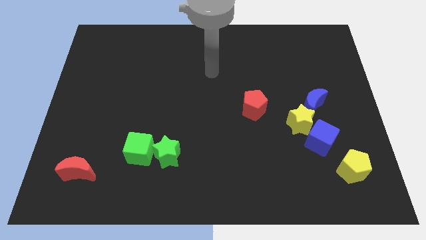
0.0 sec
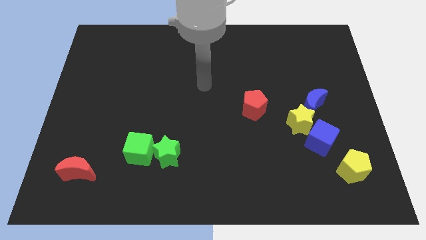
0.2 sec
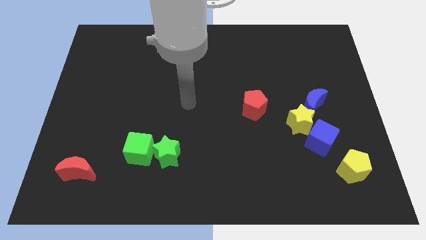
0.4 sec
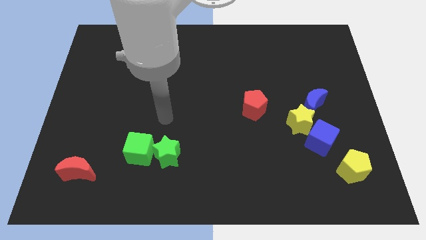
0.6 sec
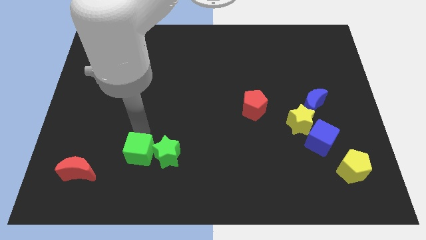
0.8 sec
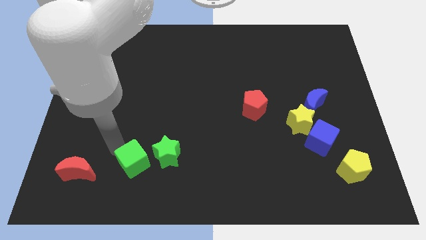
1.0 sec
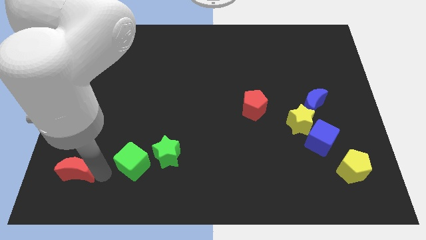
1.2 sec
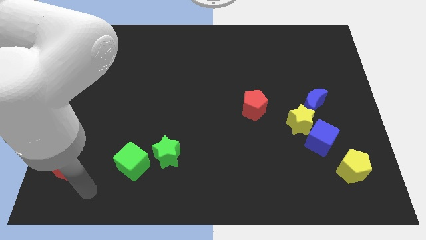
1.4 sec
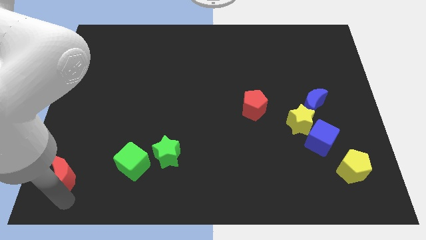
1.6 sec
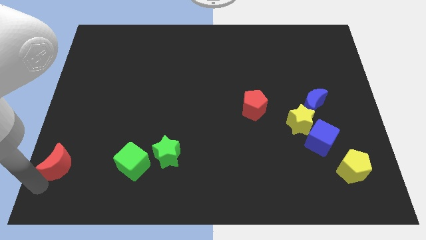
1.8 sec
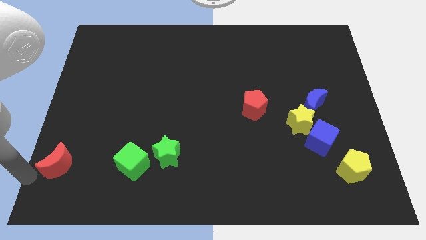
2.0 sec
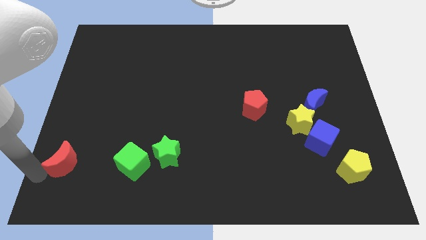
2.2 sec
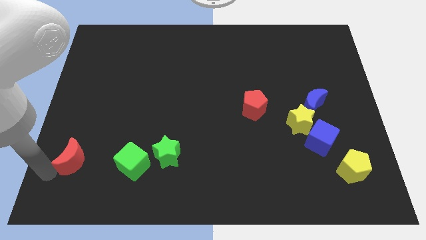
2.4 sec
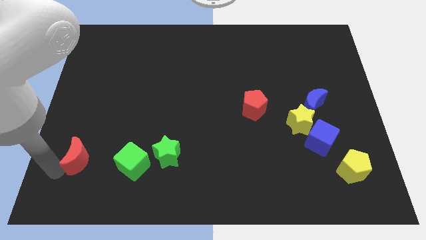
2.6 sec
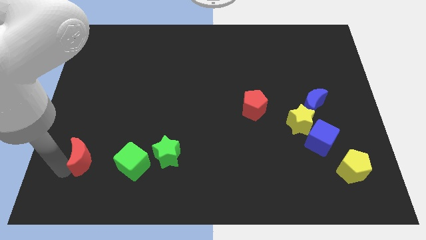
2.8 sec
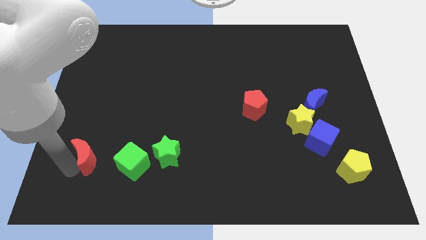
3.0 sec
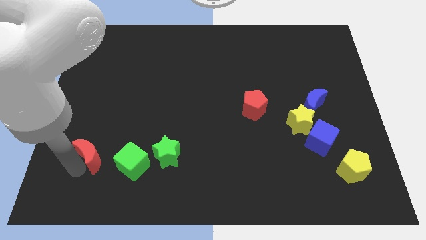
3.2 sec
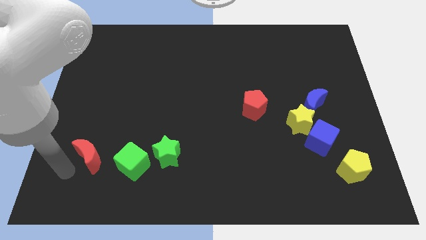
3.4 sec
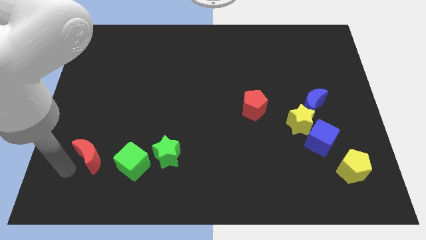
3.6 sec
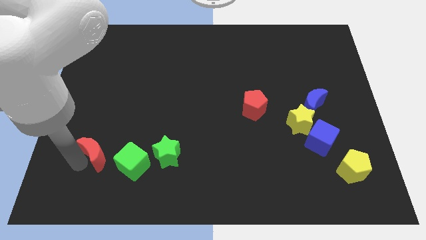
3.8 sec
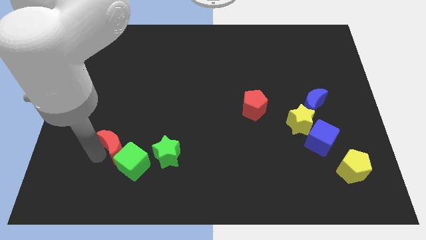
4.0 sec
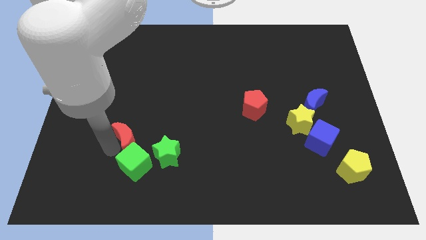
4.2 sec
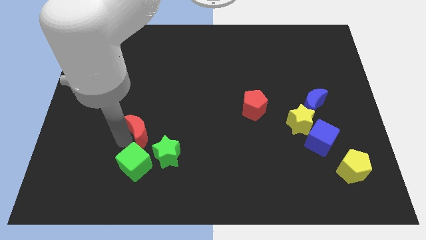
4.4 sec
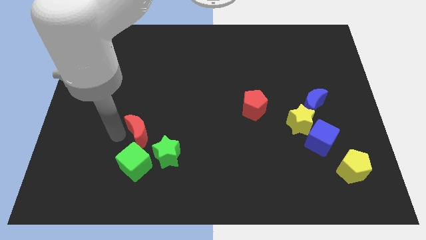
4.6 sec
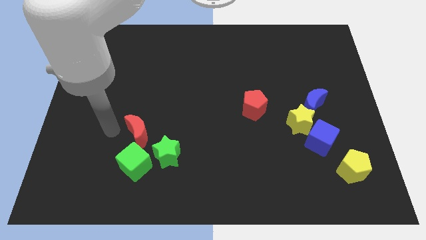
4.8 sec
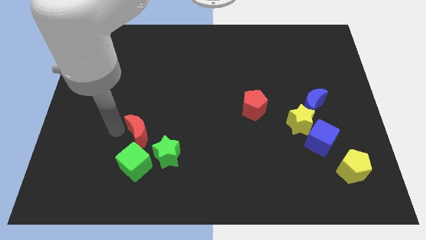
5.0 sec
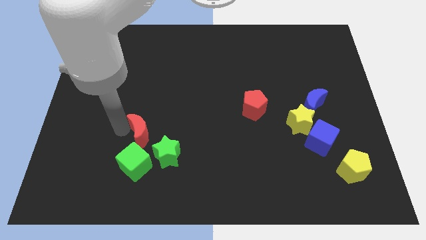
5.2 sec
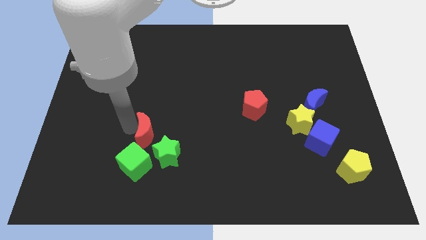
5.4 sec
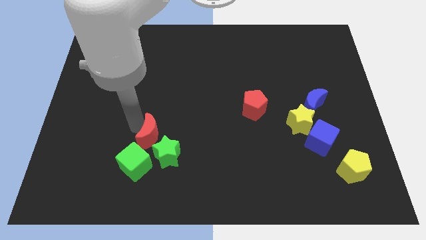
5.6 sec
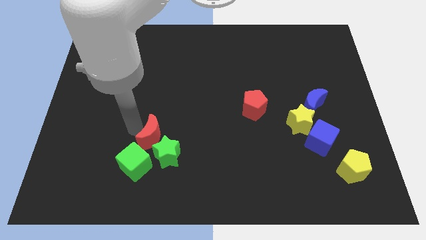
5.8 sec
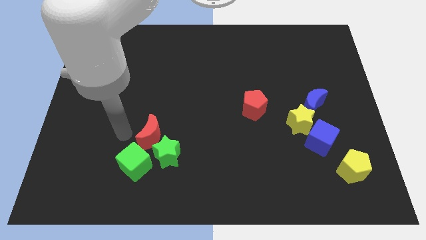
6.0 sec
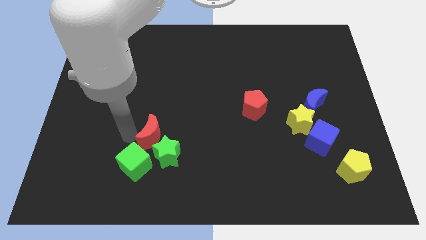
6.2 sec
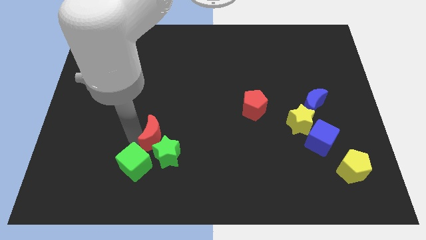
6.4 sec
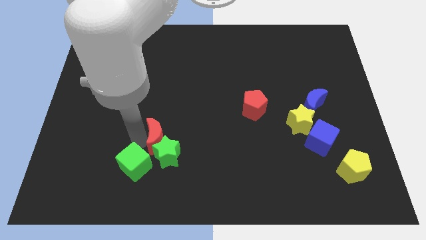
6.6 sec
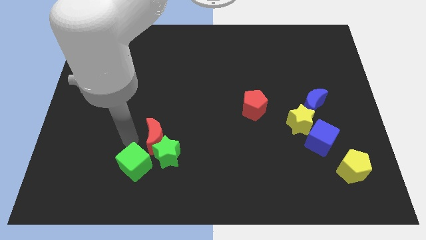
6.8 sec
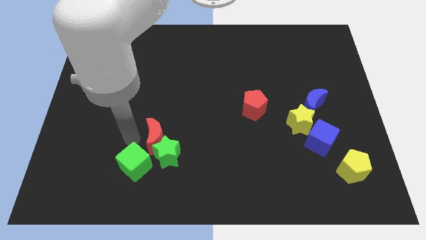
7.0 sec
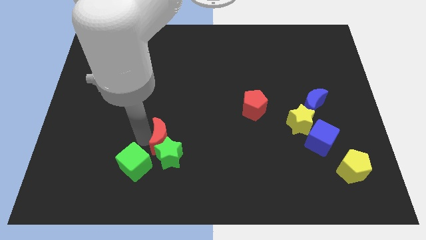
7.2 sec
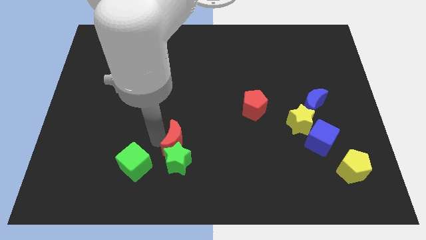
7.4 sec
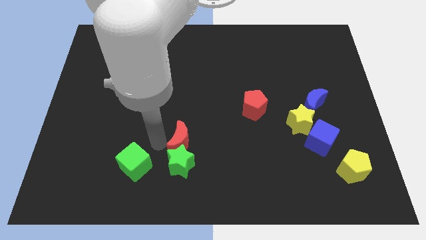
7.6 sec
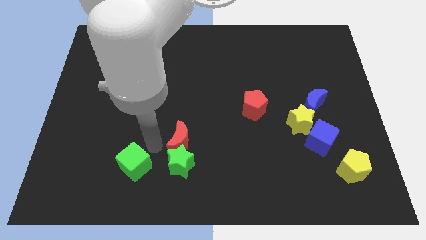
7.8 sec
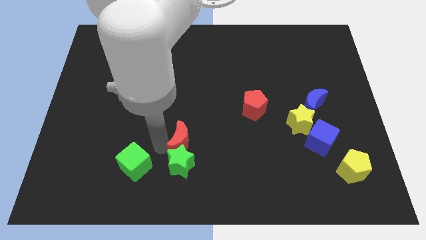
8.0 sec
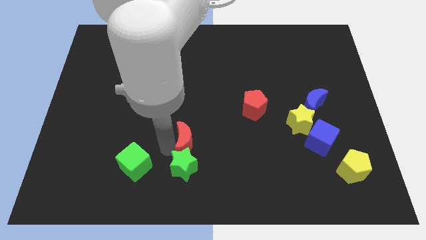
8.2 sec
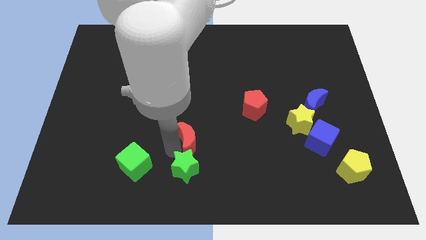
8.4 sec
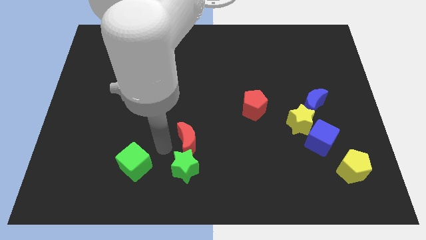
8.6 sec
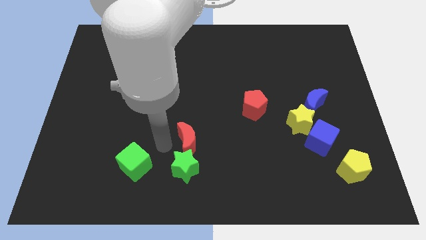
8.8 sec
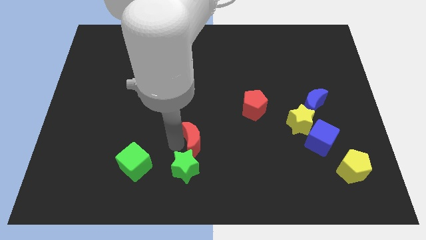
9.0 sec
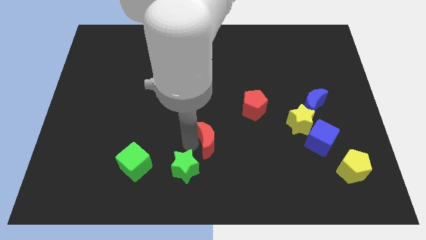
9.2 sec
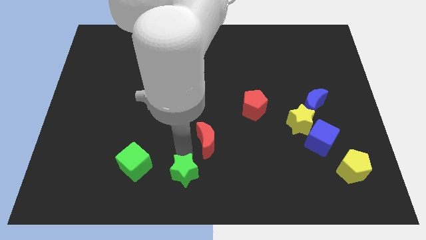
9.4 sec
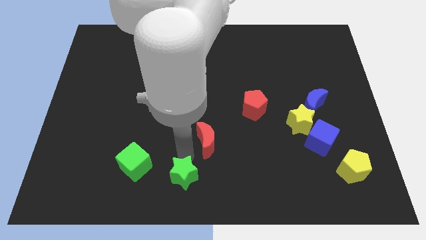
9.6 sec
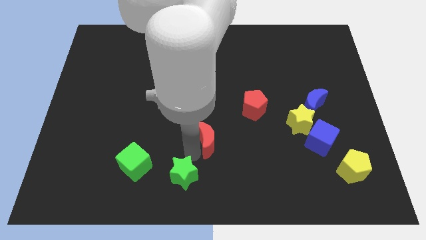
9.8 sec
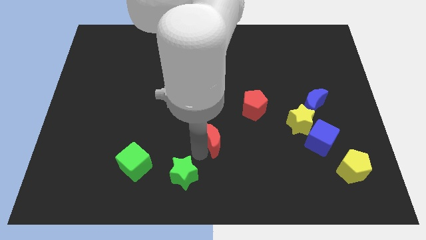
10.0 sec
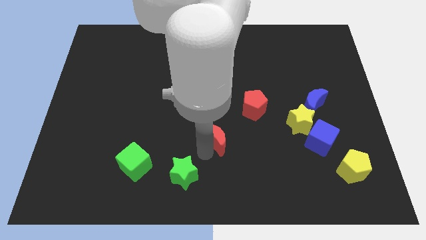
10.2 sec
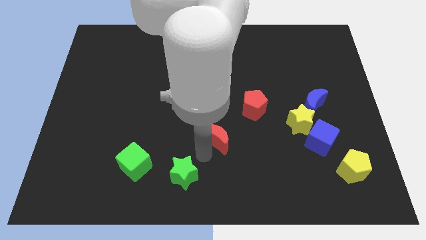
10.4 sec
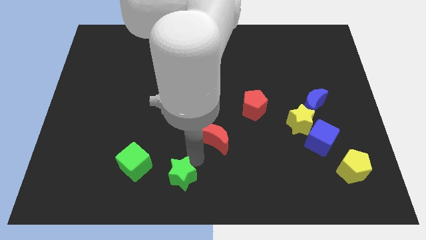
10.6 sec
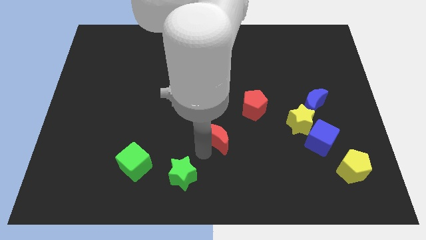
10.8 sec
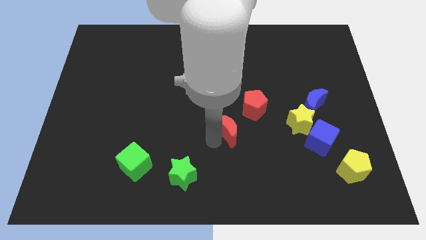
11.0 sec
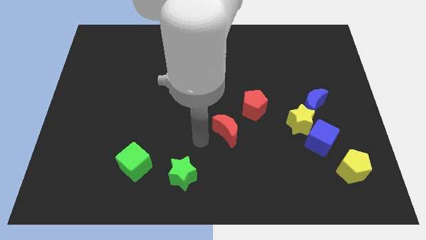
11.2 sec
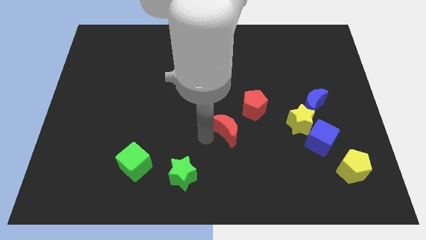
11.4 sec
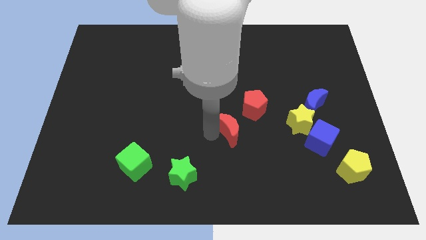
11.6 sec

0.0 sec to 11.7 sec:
put the red moon just left of the yellow star

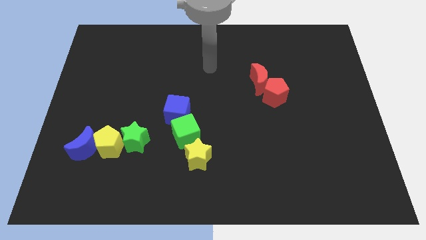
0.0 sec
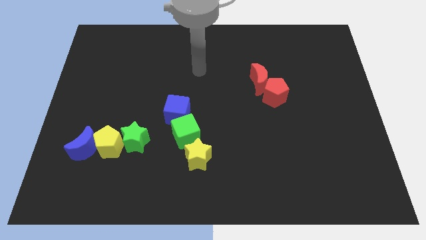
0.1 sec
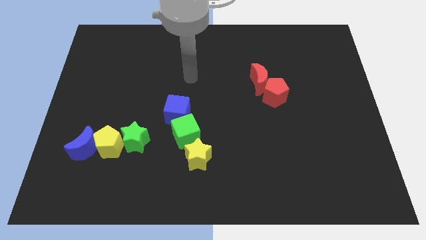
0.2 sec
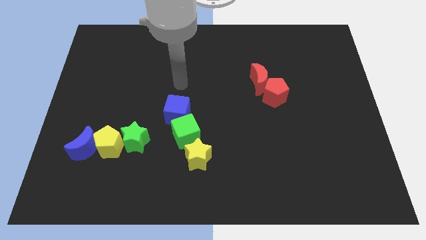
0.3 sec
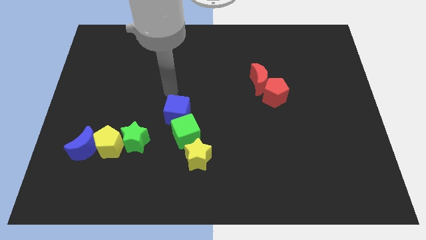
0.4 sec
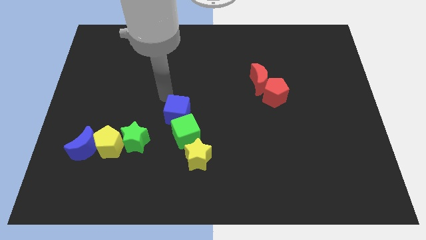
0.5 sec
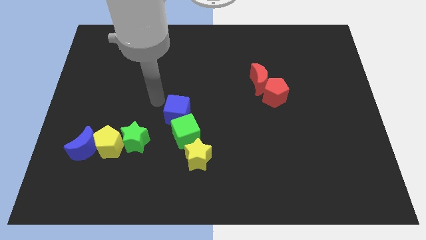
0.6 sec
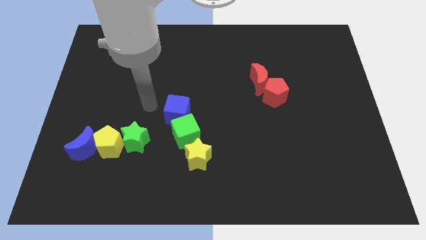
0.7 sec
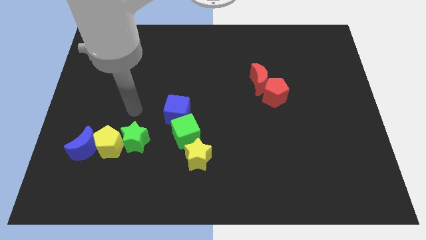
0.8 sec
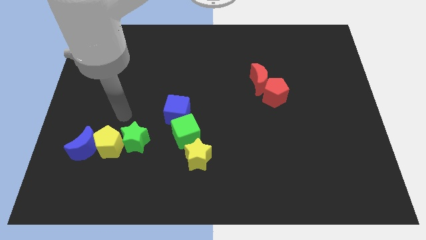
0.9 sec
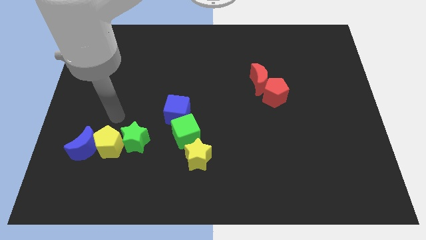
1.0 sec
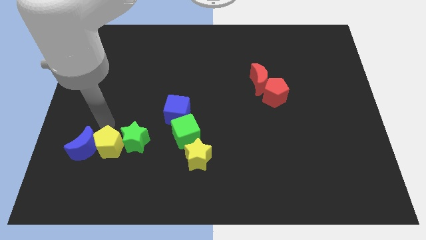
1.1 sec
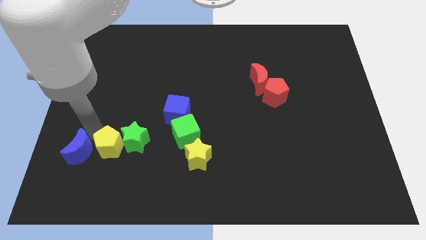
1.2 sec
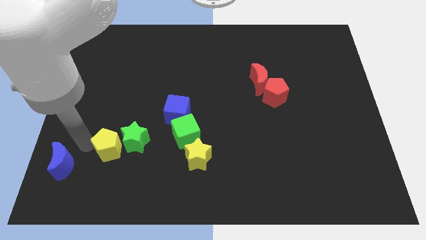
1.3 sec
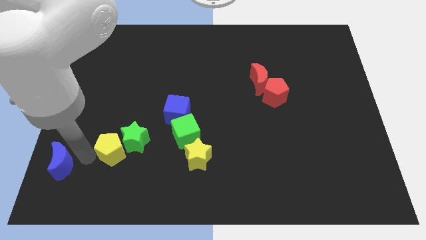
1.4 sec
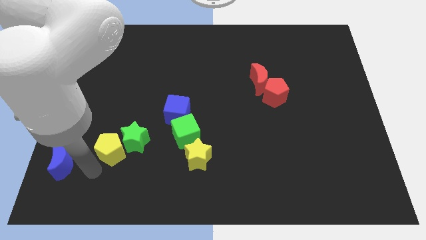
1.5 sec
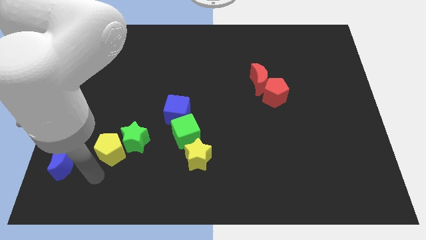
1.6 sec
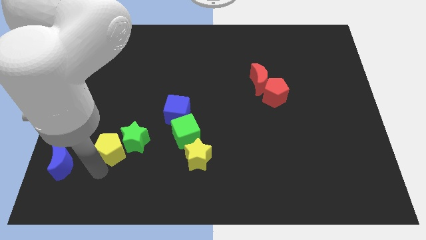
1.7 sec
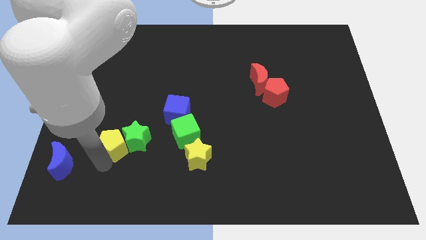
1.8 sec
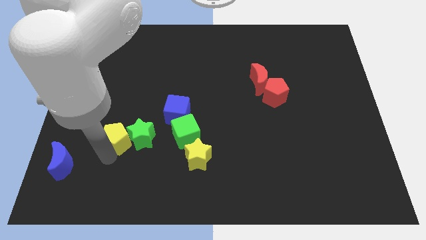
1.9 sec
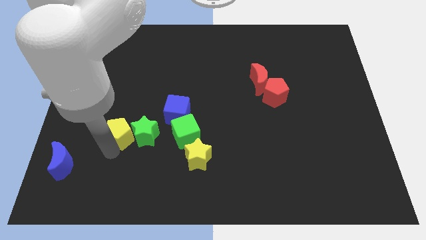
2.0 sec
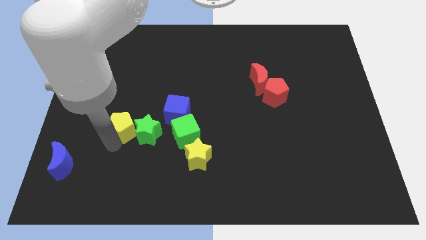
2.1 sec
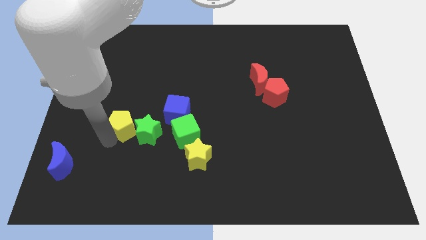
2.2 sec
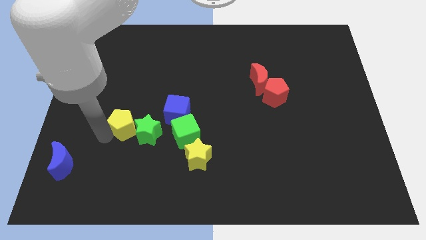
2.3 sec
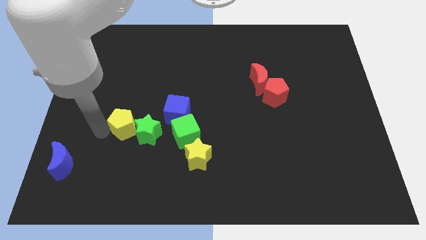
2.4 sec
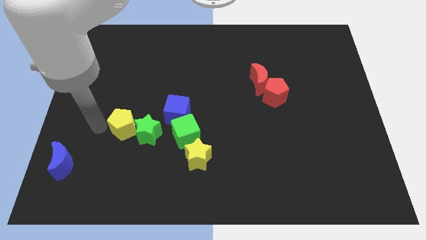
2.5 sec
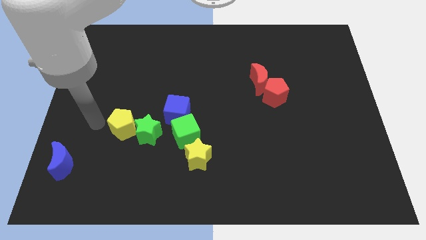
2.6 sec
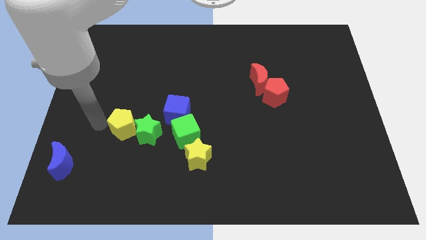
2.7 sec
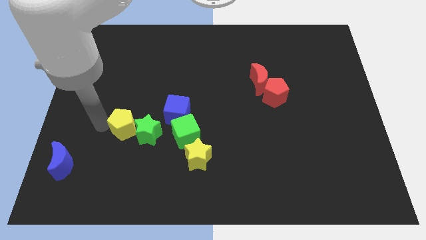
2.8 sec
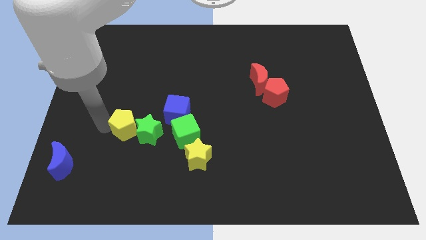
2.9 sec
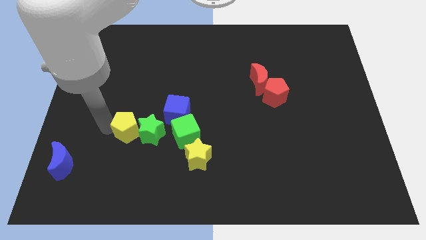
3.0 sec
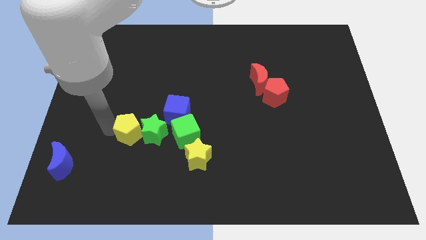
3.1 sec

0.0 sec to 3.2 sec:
move the yellow pentagon diagonally down and to the left of the blue cube
